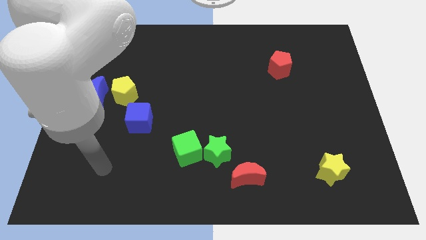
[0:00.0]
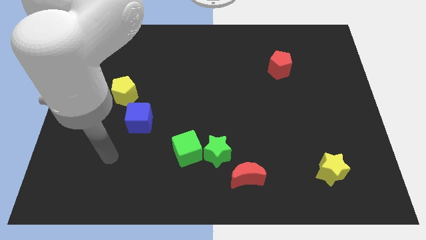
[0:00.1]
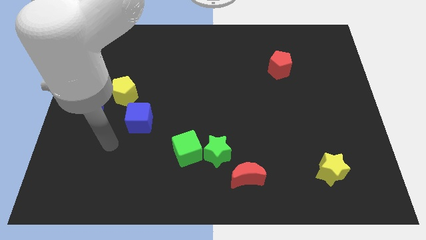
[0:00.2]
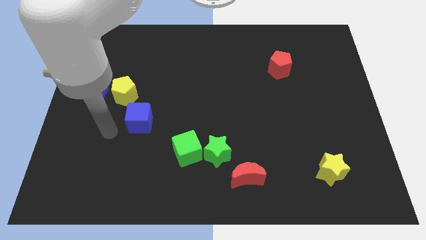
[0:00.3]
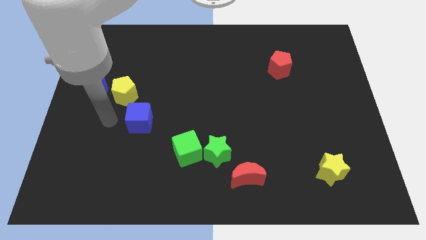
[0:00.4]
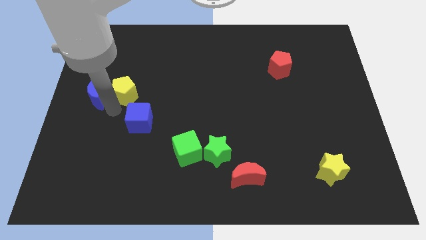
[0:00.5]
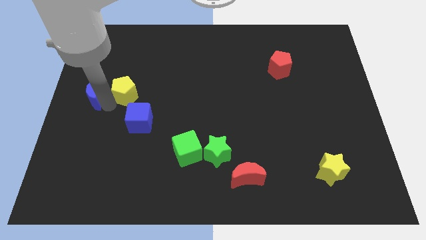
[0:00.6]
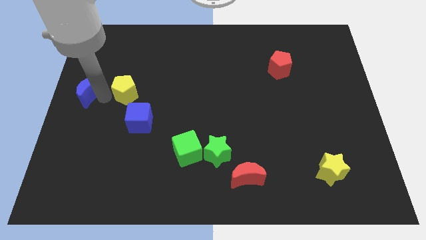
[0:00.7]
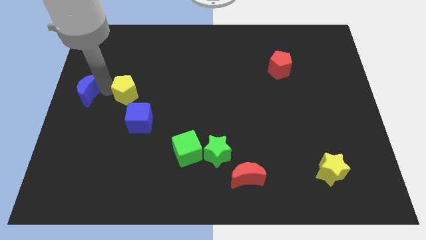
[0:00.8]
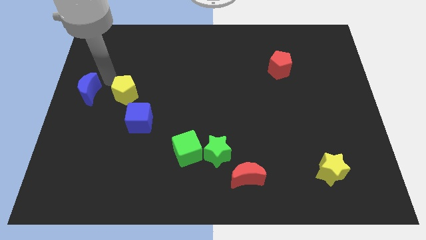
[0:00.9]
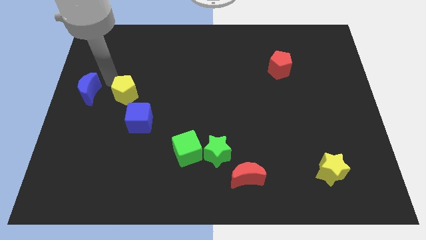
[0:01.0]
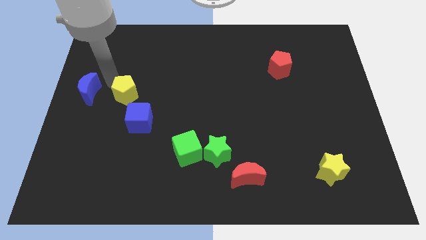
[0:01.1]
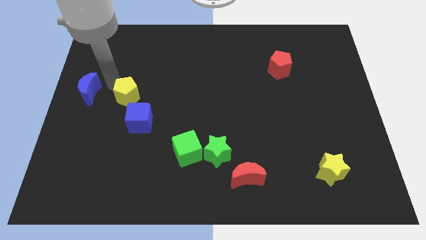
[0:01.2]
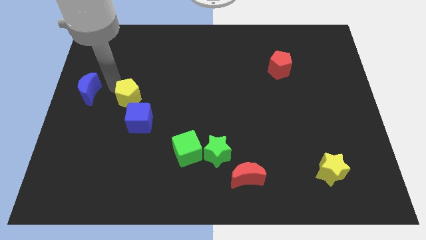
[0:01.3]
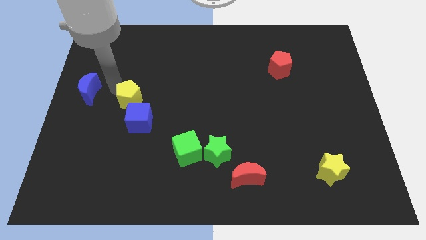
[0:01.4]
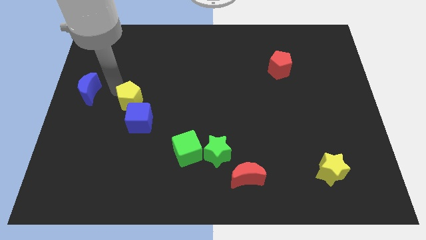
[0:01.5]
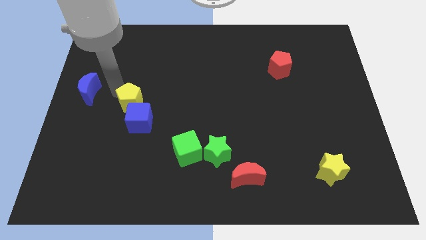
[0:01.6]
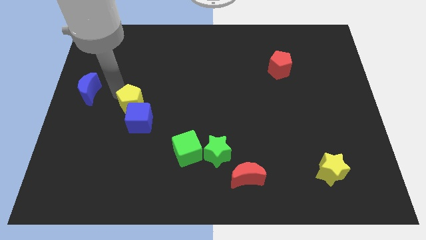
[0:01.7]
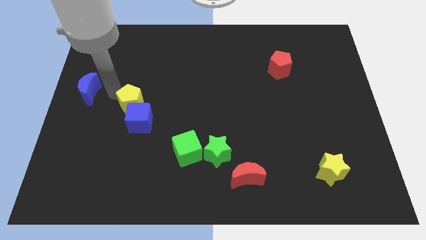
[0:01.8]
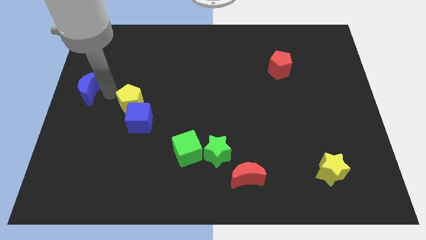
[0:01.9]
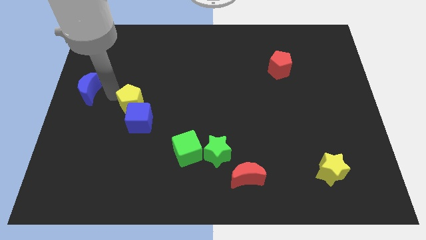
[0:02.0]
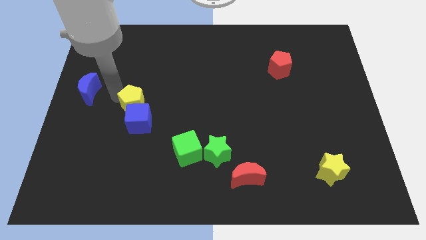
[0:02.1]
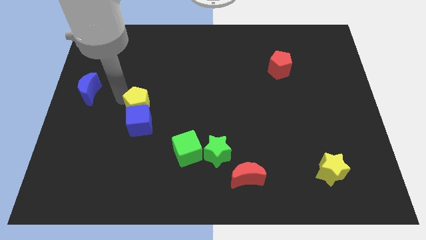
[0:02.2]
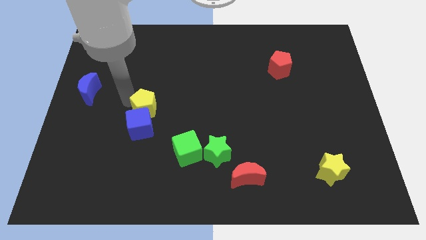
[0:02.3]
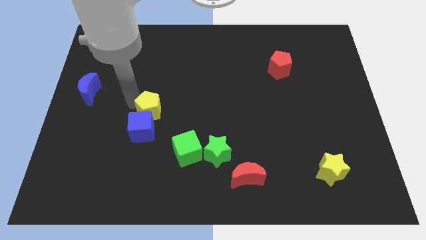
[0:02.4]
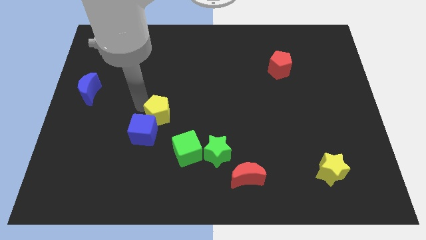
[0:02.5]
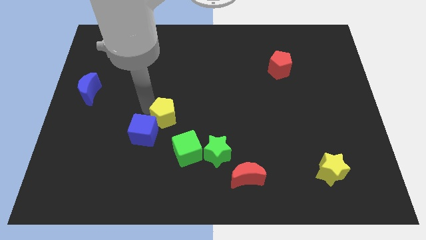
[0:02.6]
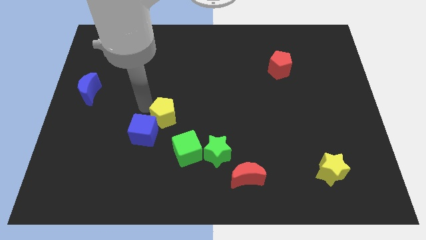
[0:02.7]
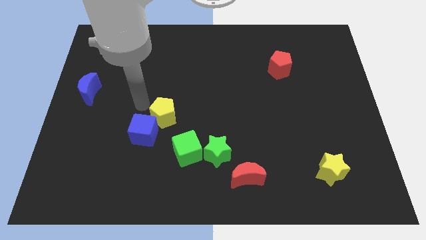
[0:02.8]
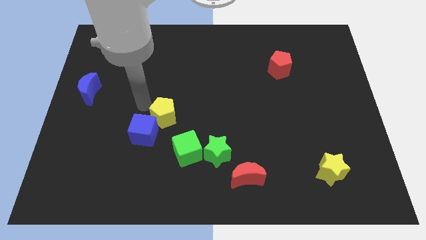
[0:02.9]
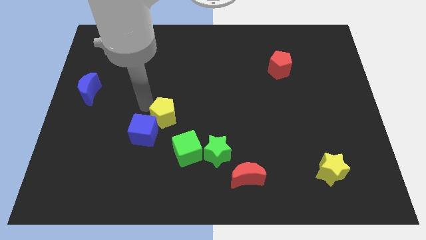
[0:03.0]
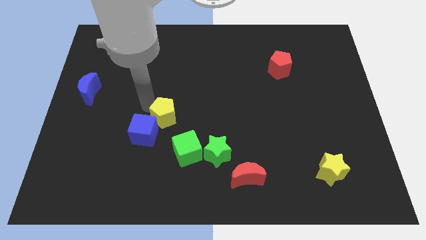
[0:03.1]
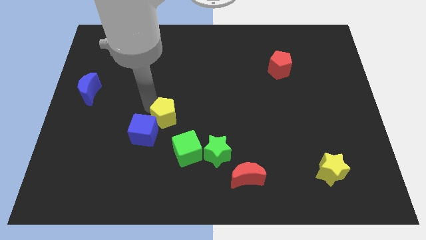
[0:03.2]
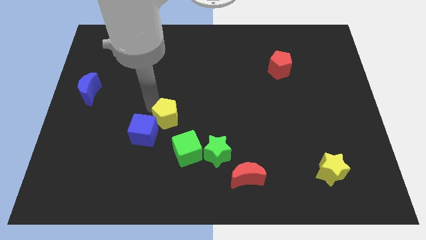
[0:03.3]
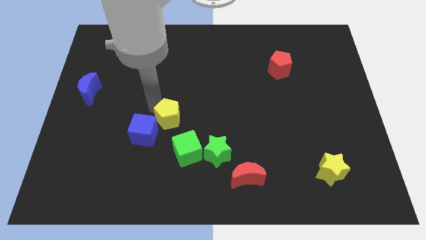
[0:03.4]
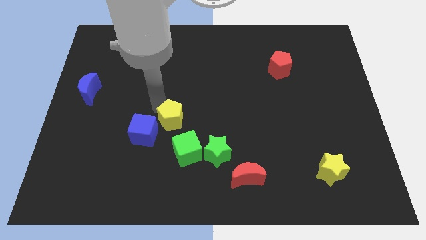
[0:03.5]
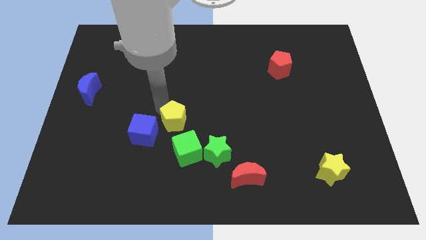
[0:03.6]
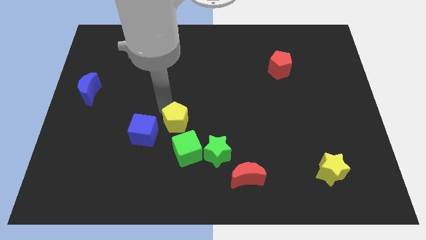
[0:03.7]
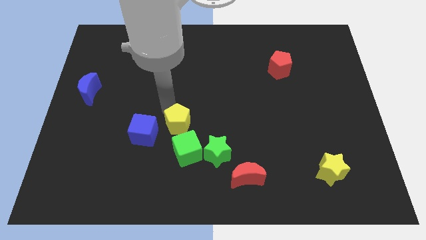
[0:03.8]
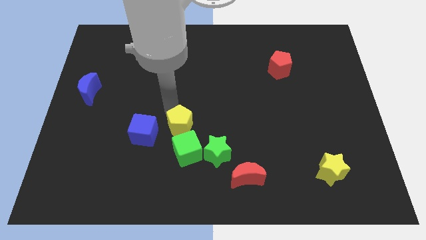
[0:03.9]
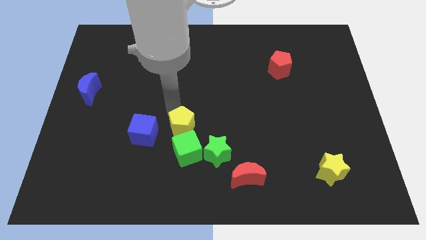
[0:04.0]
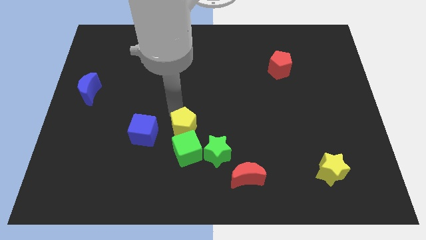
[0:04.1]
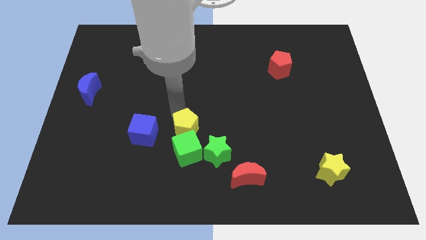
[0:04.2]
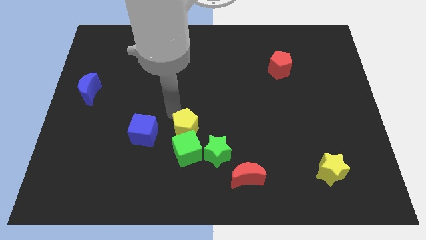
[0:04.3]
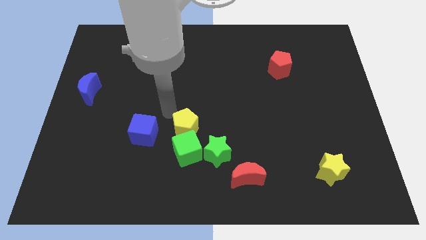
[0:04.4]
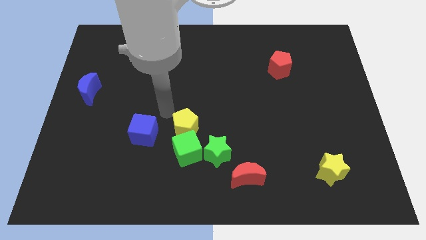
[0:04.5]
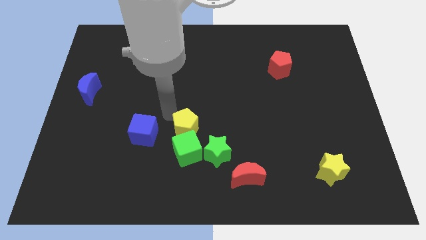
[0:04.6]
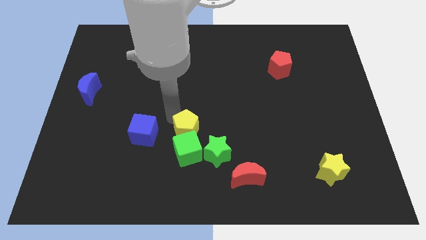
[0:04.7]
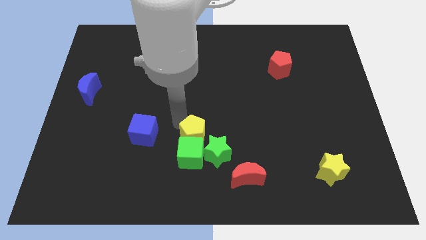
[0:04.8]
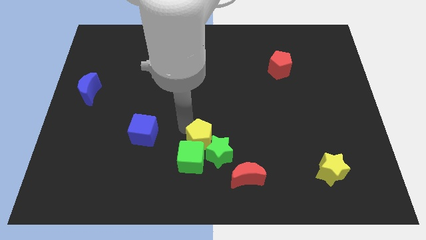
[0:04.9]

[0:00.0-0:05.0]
push the yellow pentagon next to the green star

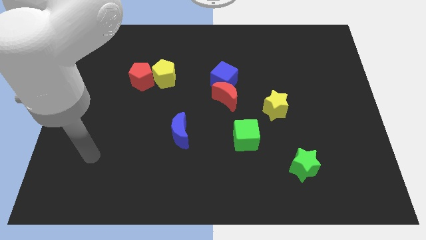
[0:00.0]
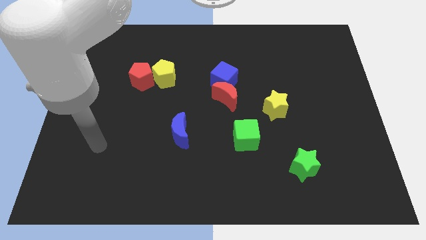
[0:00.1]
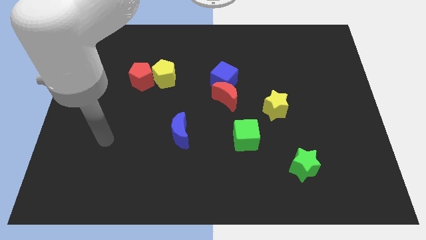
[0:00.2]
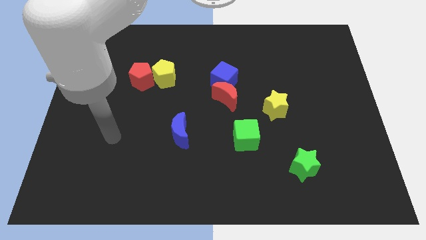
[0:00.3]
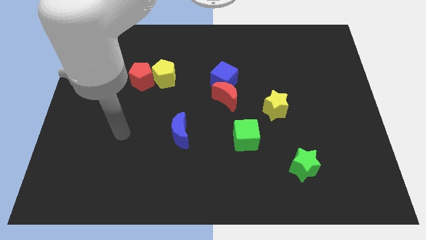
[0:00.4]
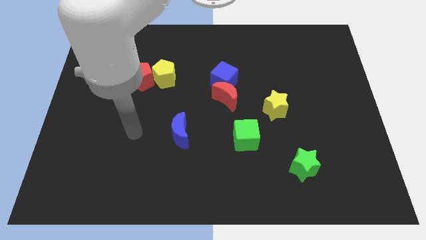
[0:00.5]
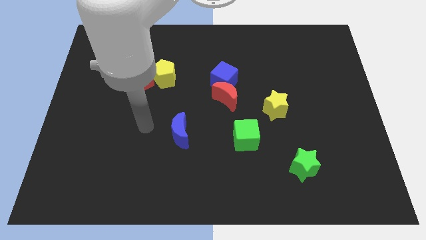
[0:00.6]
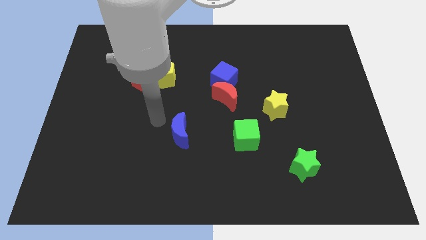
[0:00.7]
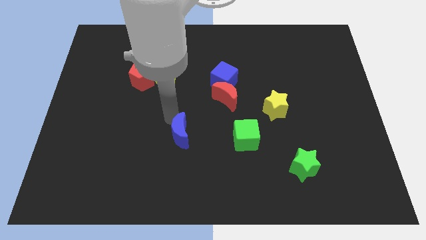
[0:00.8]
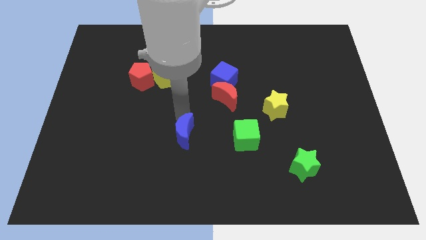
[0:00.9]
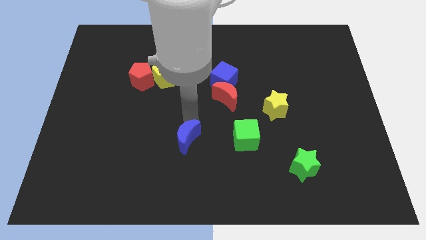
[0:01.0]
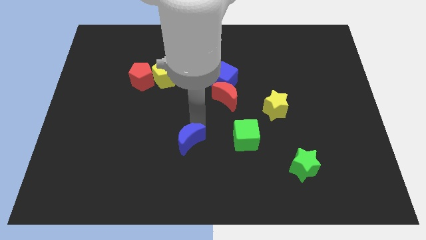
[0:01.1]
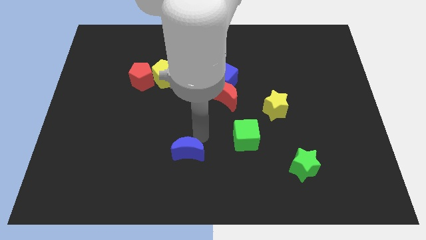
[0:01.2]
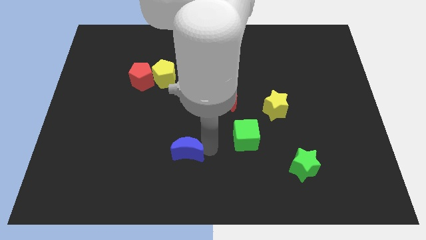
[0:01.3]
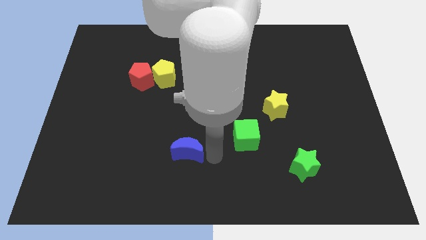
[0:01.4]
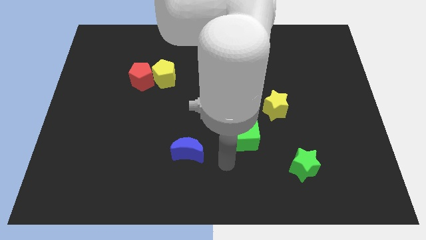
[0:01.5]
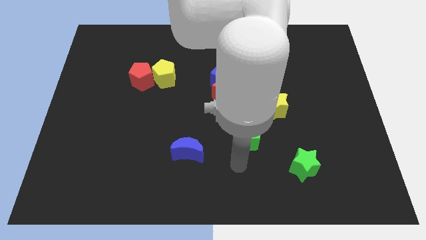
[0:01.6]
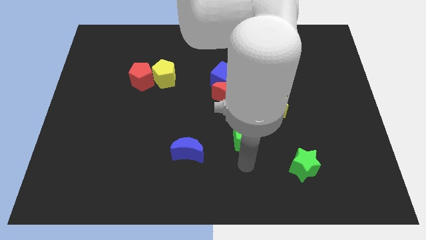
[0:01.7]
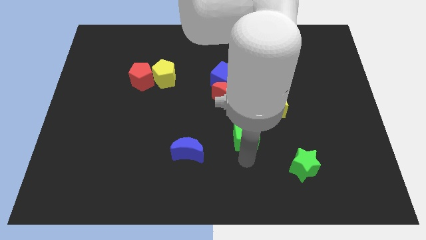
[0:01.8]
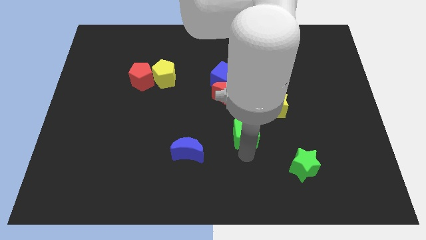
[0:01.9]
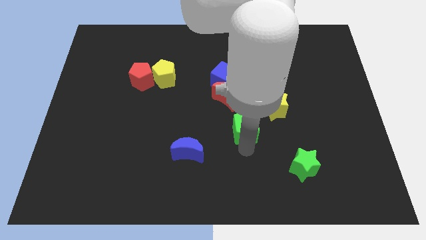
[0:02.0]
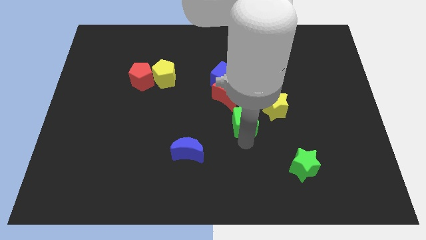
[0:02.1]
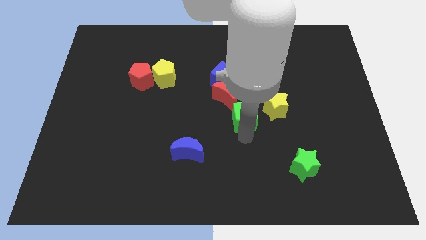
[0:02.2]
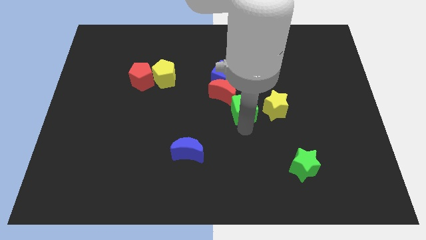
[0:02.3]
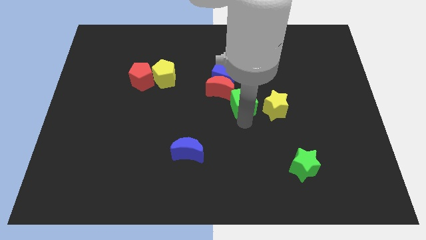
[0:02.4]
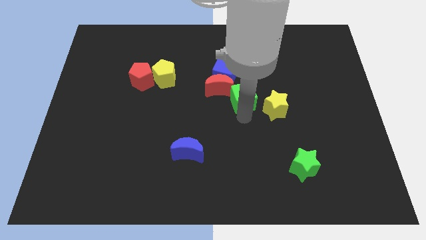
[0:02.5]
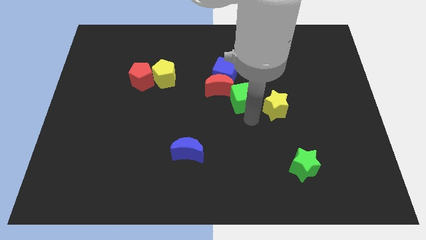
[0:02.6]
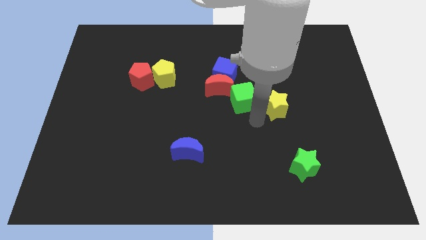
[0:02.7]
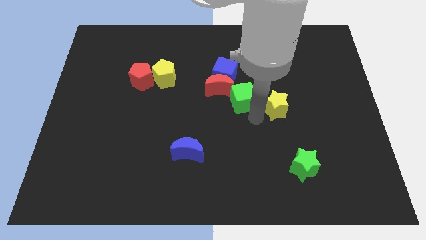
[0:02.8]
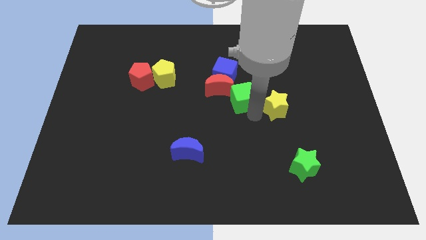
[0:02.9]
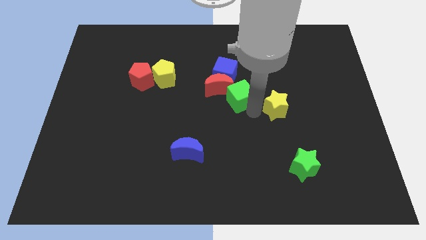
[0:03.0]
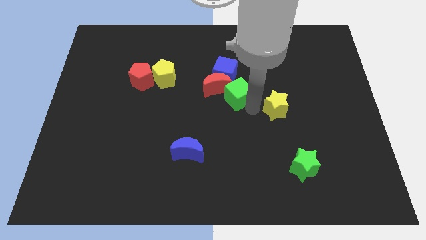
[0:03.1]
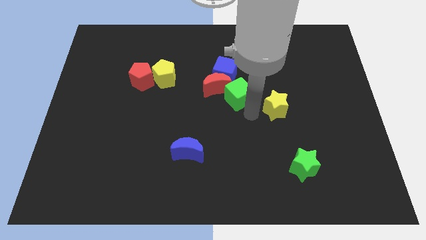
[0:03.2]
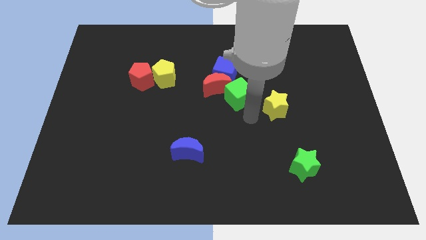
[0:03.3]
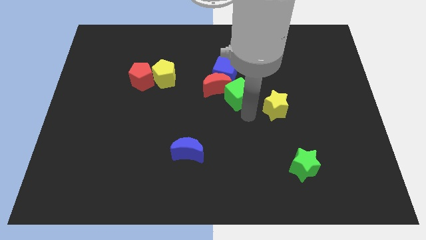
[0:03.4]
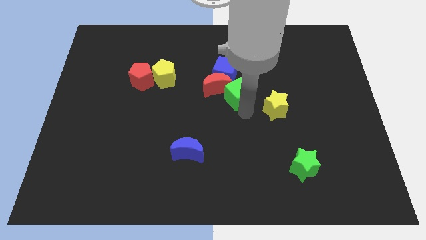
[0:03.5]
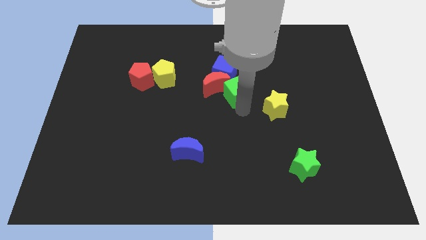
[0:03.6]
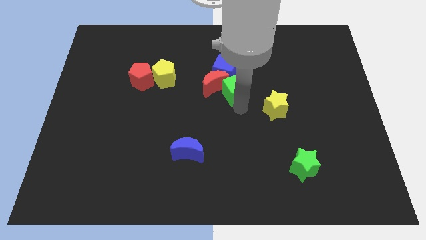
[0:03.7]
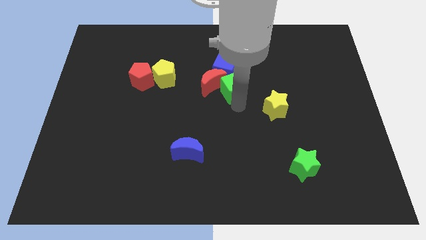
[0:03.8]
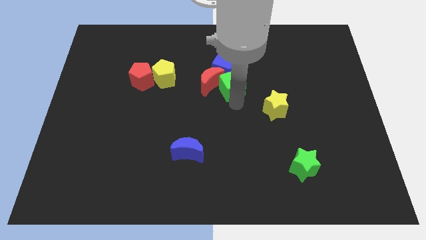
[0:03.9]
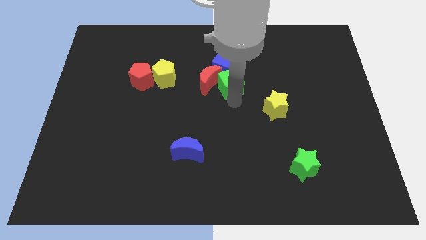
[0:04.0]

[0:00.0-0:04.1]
move the green cube next to the blue cube
